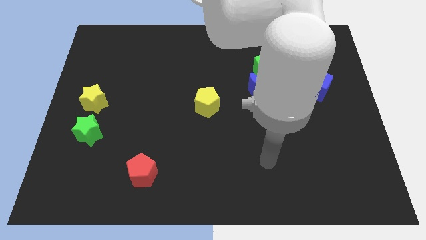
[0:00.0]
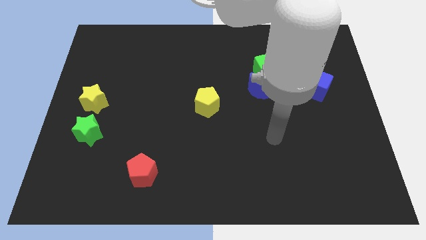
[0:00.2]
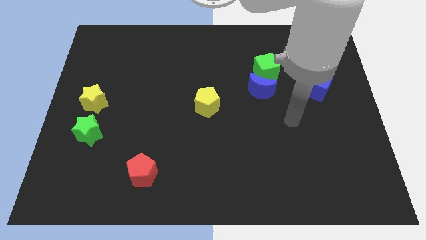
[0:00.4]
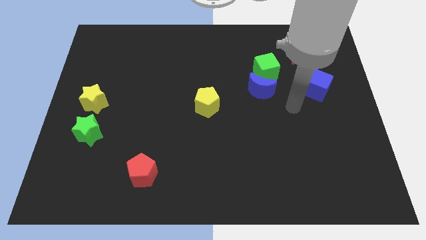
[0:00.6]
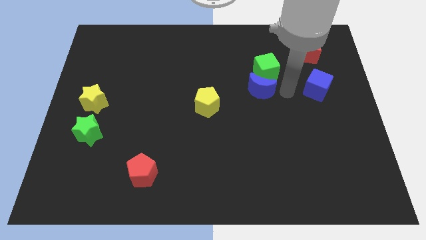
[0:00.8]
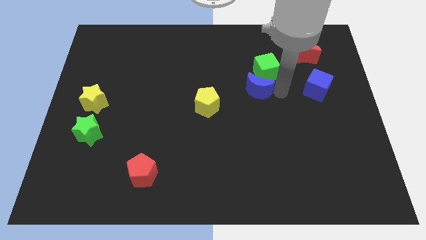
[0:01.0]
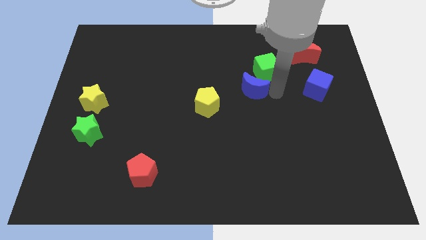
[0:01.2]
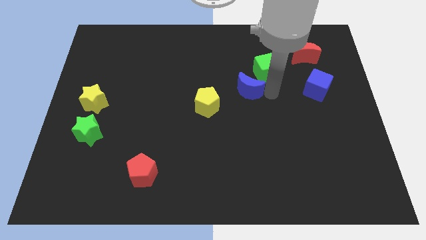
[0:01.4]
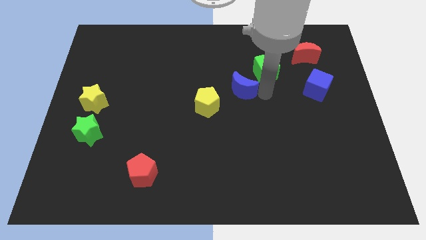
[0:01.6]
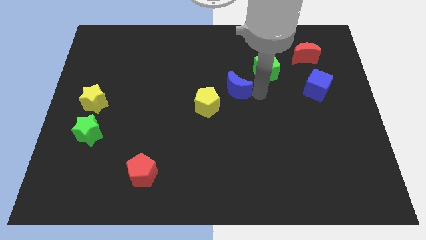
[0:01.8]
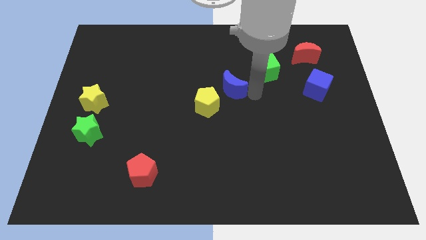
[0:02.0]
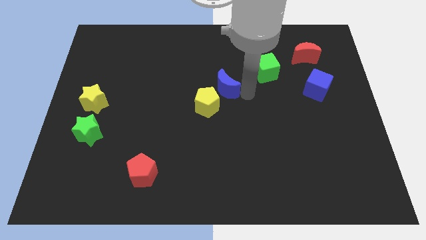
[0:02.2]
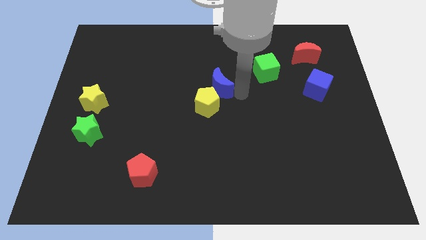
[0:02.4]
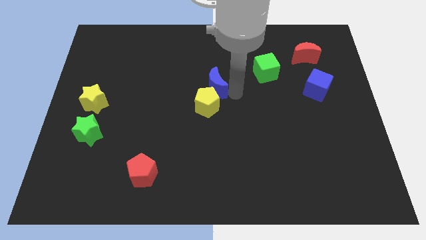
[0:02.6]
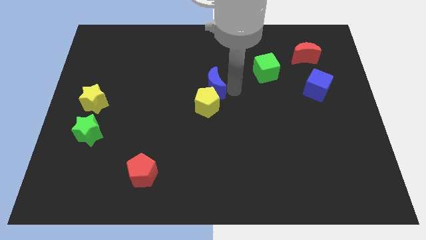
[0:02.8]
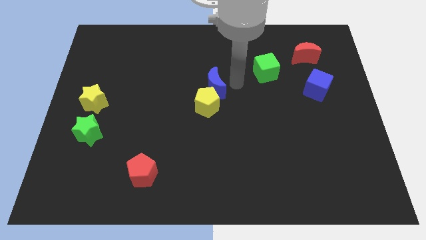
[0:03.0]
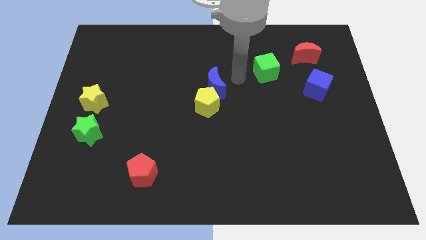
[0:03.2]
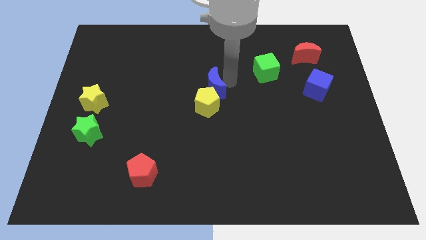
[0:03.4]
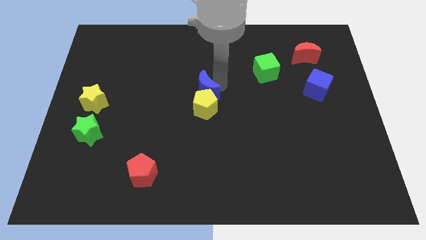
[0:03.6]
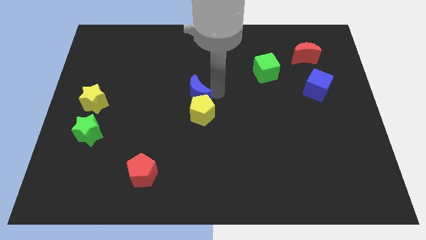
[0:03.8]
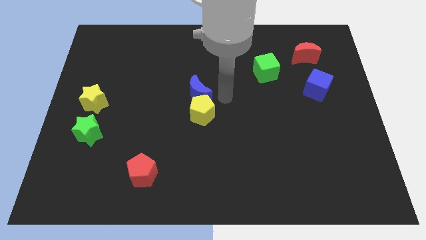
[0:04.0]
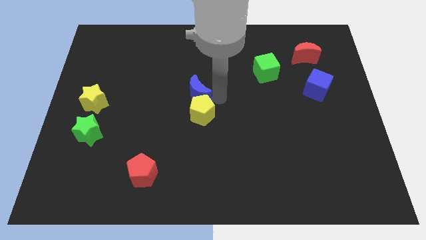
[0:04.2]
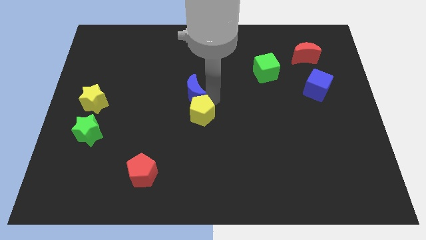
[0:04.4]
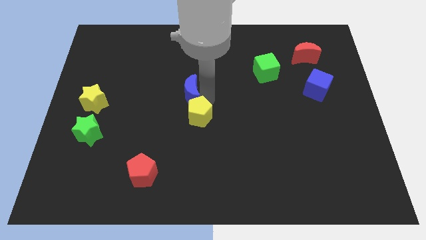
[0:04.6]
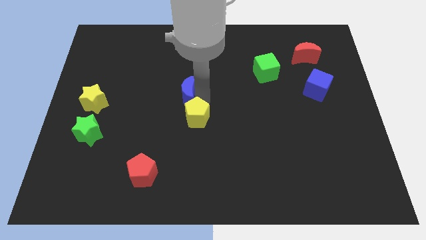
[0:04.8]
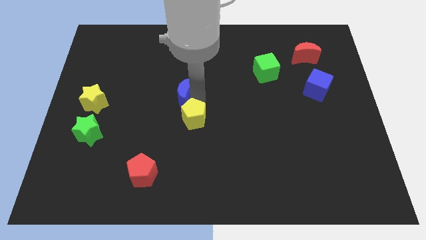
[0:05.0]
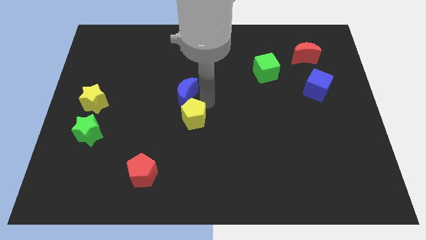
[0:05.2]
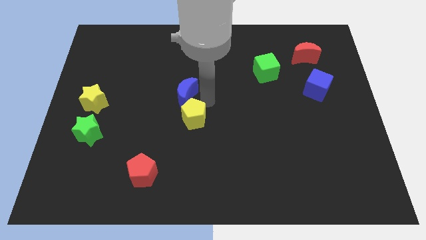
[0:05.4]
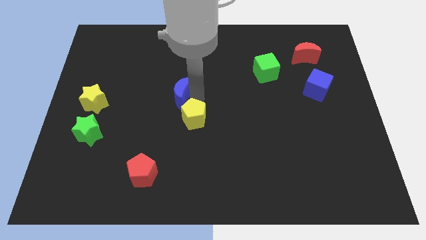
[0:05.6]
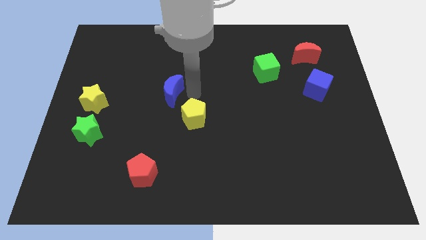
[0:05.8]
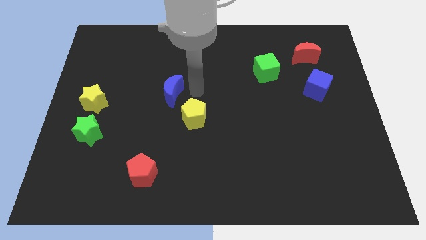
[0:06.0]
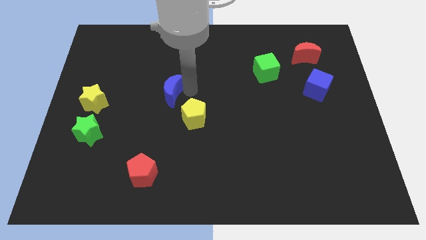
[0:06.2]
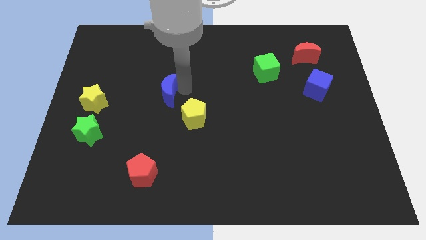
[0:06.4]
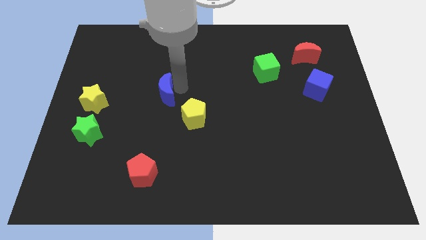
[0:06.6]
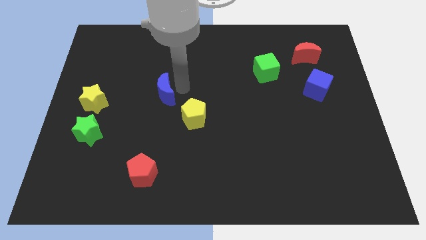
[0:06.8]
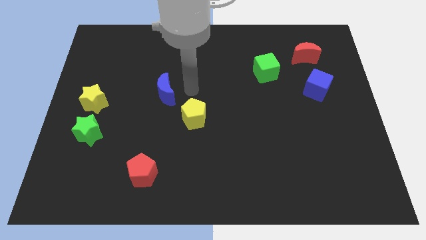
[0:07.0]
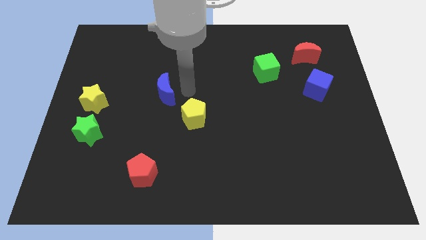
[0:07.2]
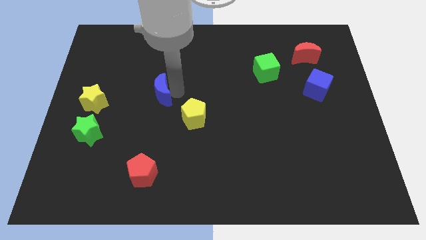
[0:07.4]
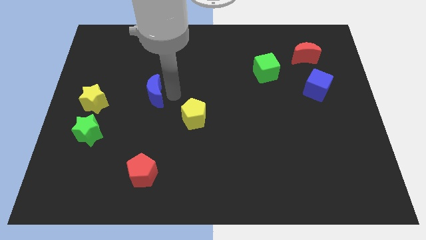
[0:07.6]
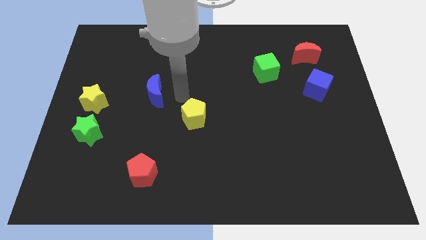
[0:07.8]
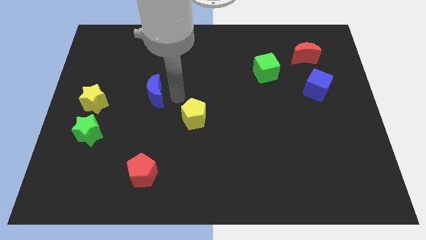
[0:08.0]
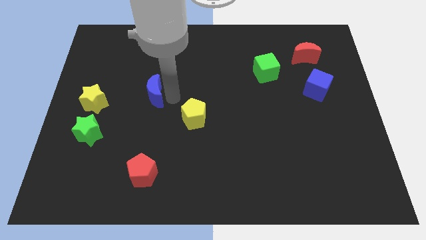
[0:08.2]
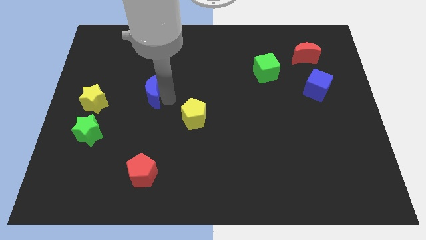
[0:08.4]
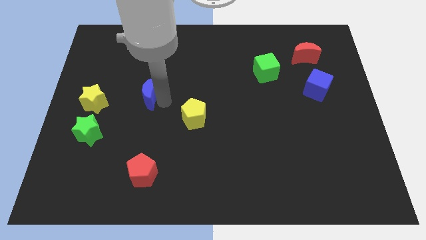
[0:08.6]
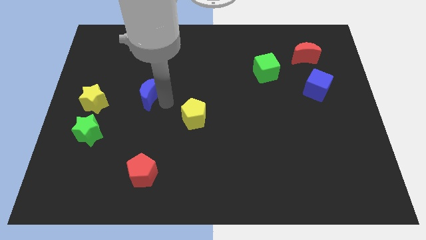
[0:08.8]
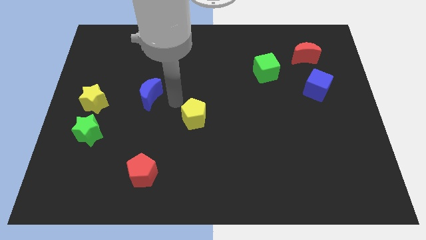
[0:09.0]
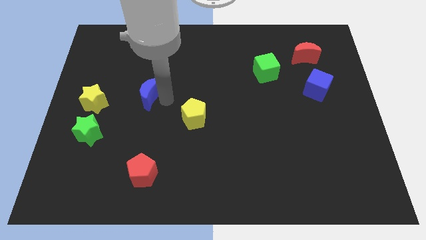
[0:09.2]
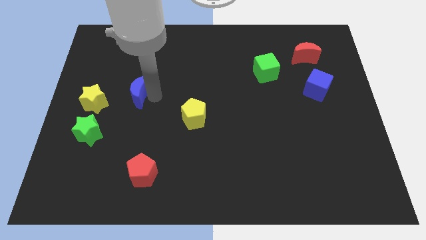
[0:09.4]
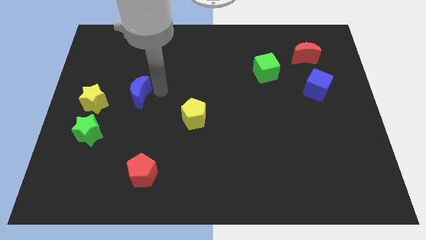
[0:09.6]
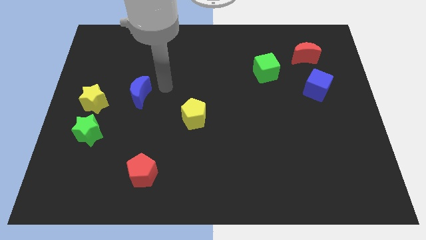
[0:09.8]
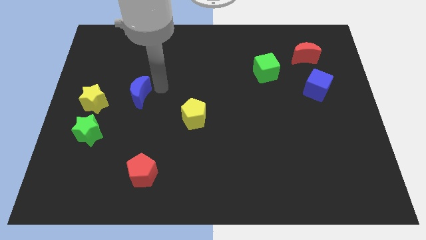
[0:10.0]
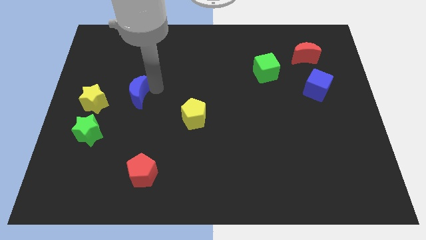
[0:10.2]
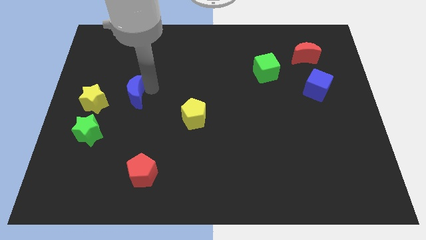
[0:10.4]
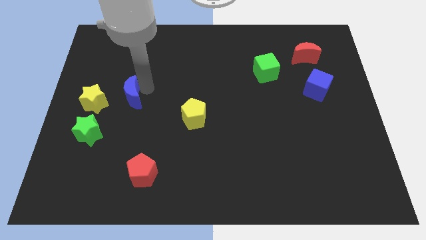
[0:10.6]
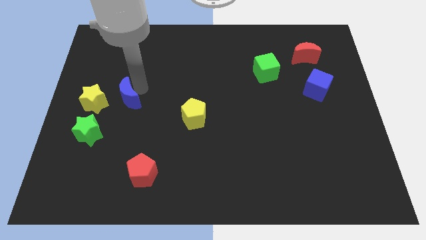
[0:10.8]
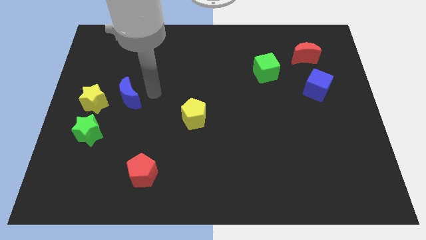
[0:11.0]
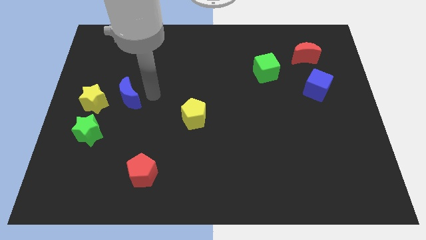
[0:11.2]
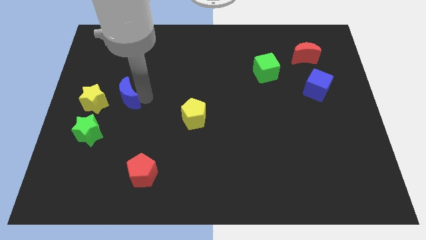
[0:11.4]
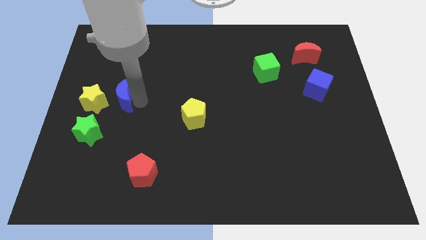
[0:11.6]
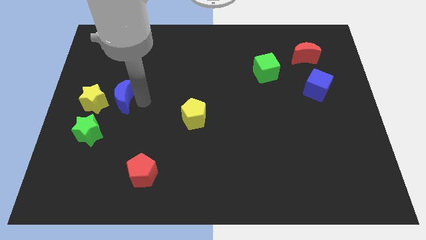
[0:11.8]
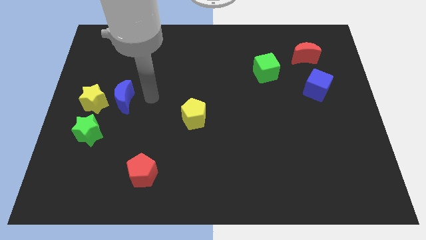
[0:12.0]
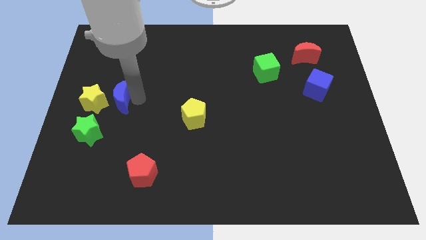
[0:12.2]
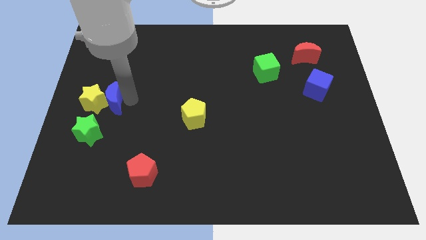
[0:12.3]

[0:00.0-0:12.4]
slide the blue moon towards the yellow star

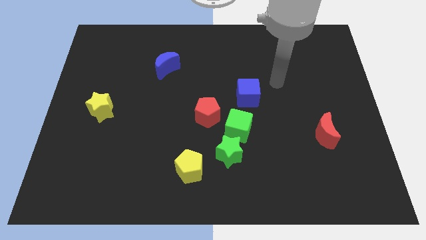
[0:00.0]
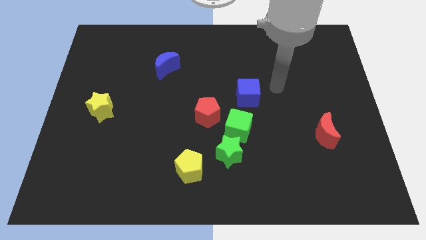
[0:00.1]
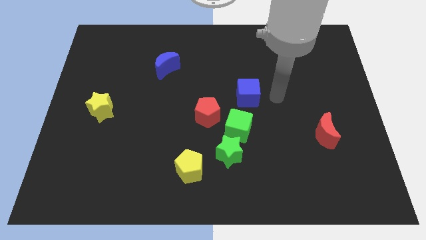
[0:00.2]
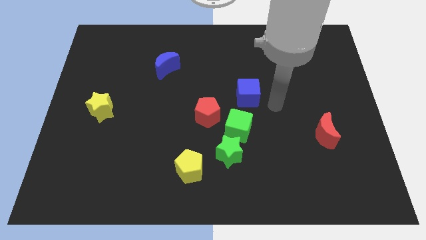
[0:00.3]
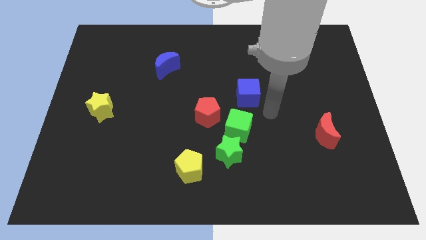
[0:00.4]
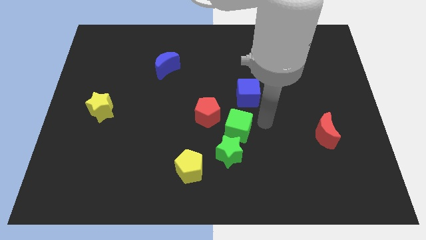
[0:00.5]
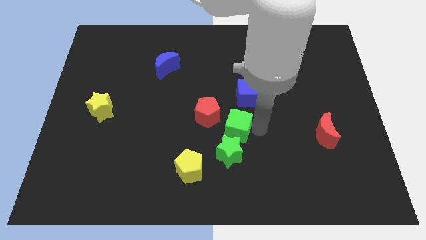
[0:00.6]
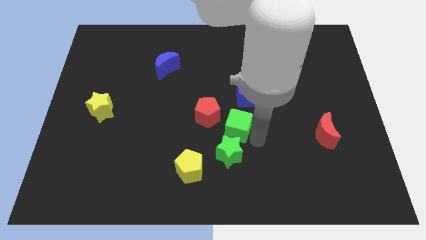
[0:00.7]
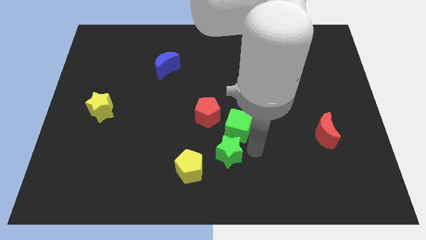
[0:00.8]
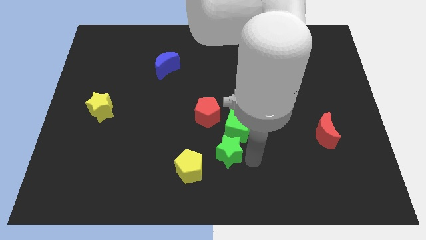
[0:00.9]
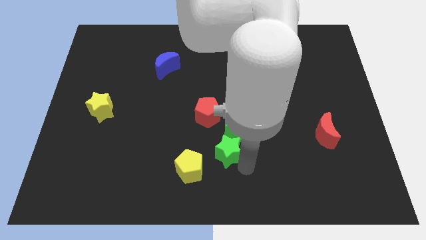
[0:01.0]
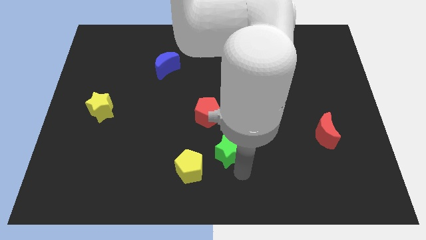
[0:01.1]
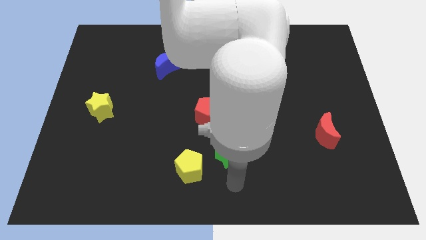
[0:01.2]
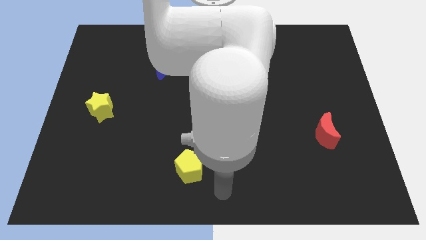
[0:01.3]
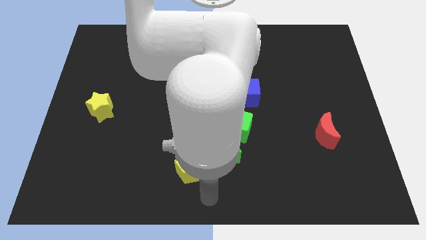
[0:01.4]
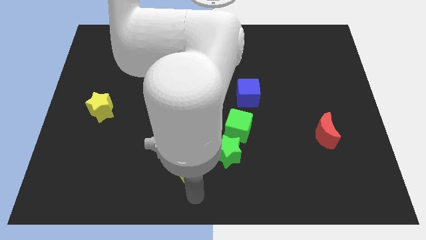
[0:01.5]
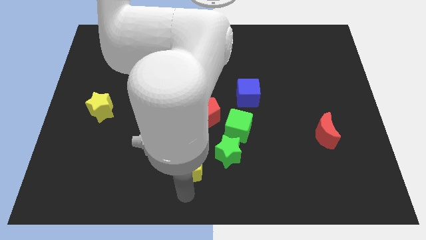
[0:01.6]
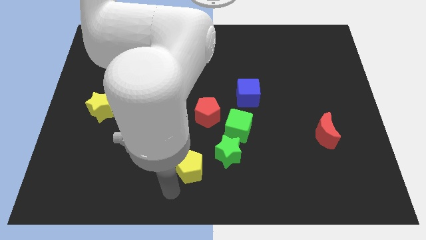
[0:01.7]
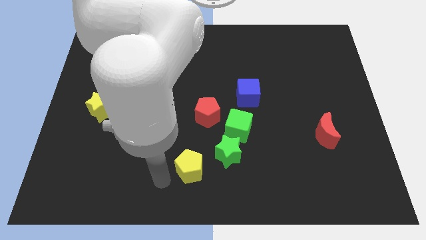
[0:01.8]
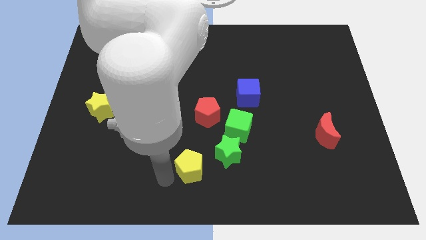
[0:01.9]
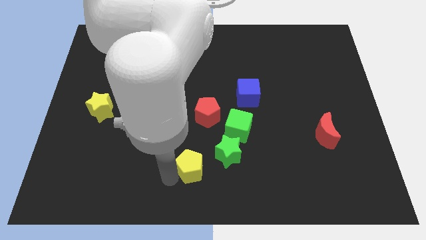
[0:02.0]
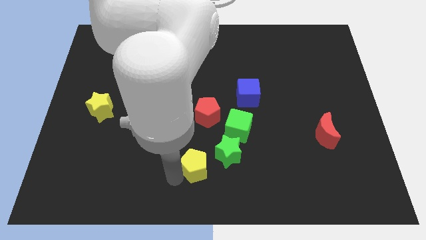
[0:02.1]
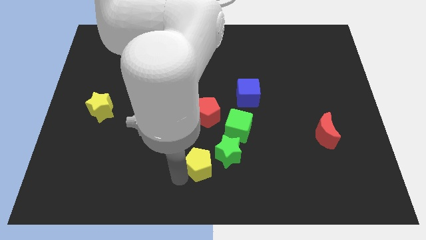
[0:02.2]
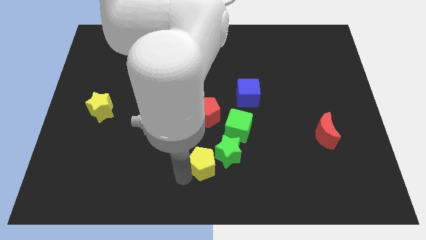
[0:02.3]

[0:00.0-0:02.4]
put the yellow pentagon towards the green star
